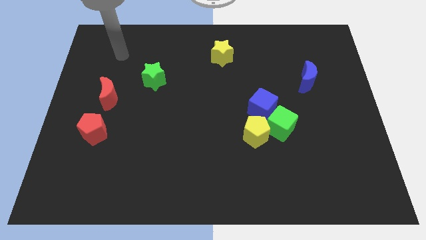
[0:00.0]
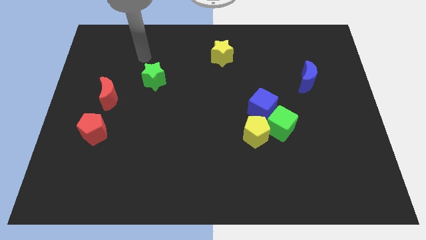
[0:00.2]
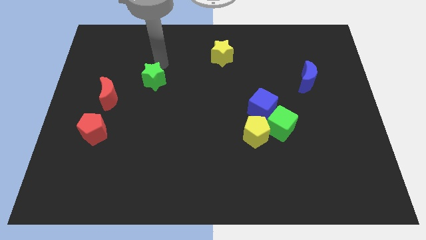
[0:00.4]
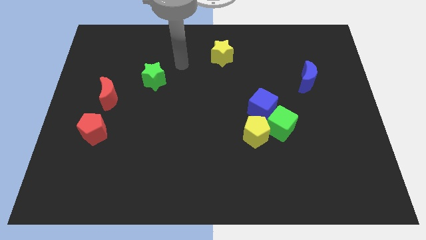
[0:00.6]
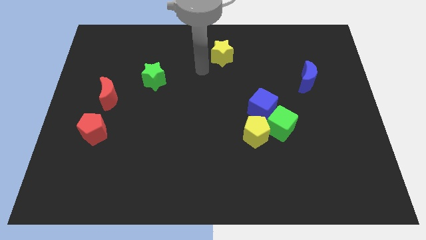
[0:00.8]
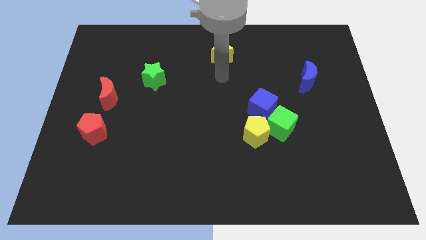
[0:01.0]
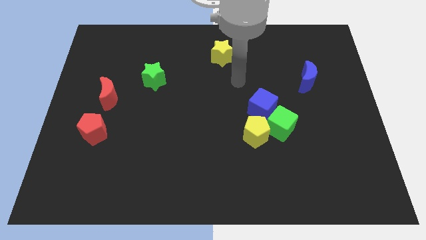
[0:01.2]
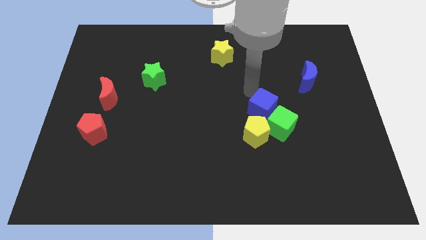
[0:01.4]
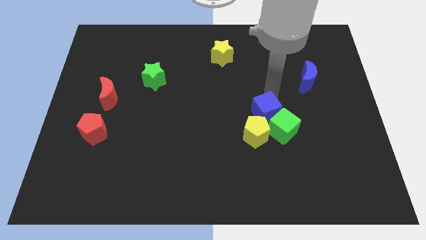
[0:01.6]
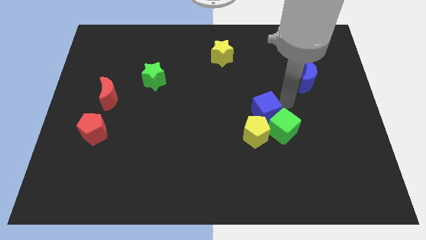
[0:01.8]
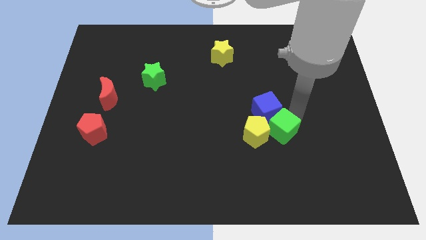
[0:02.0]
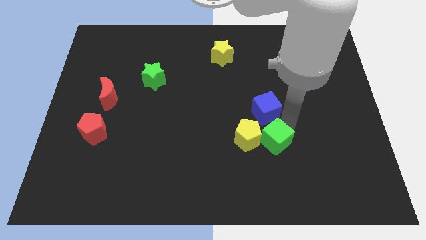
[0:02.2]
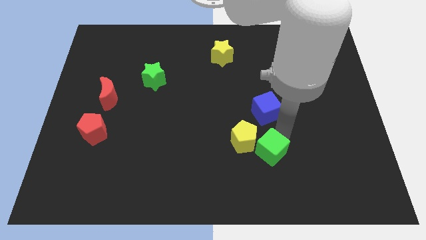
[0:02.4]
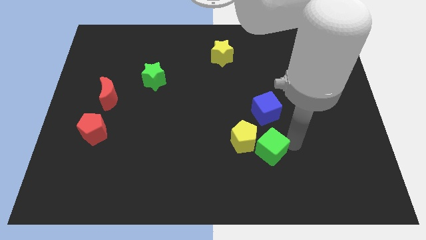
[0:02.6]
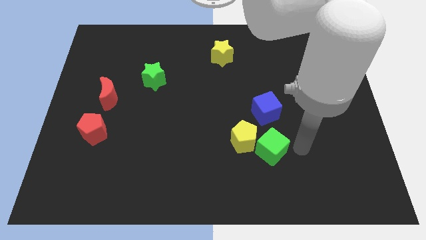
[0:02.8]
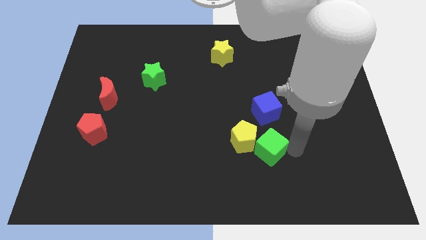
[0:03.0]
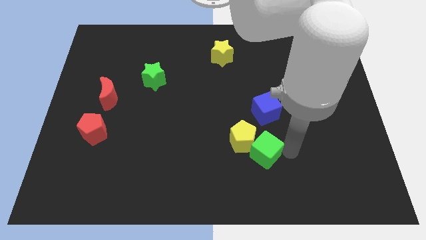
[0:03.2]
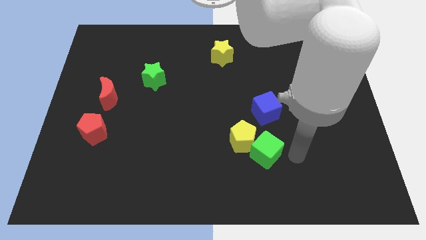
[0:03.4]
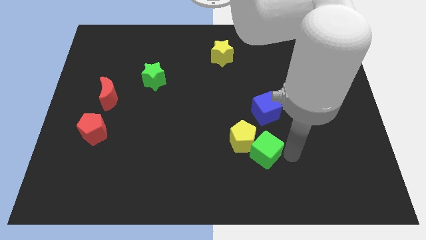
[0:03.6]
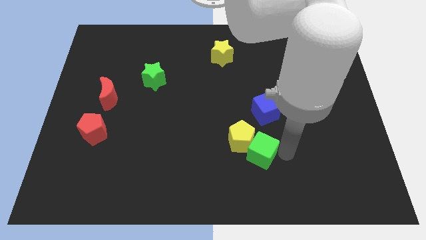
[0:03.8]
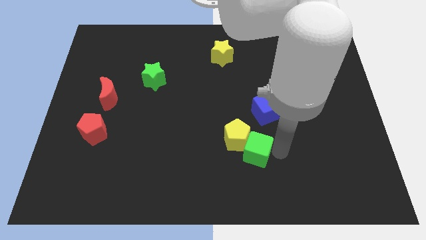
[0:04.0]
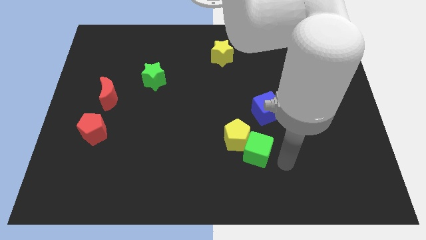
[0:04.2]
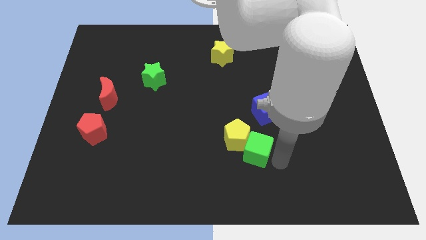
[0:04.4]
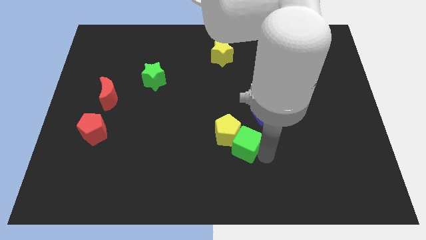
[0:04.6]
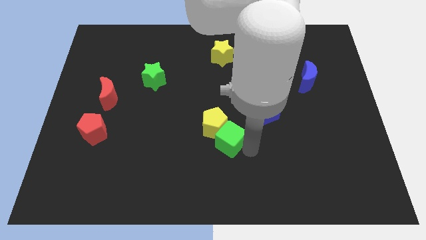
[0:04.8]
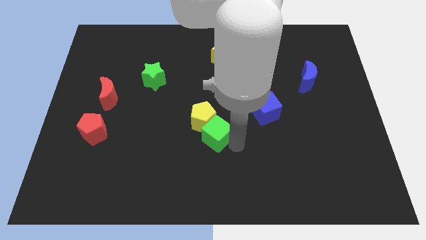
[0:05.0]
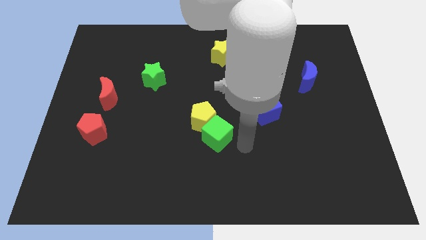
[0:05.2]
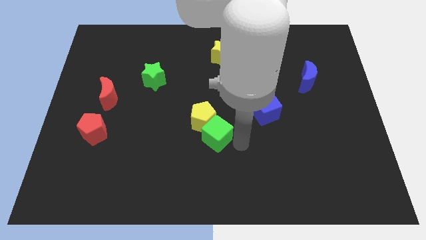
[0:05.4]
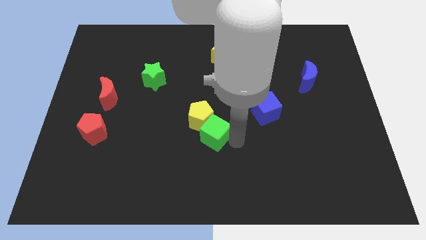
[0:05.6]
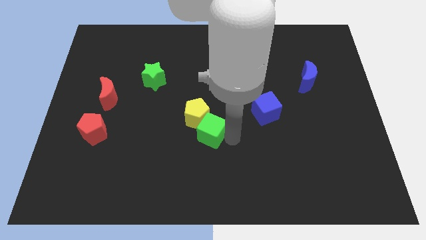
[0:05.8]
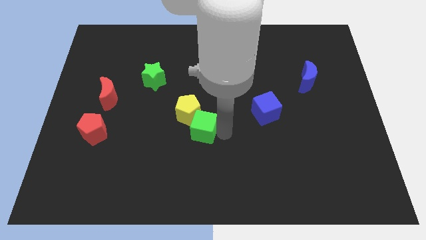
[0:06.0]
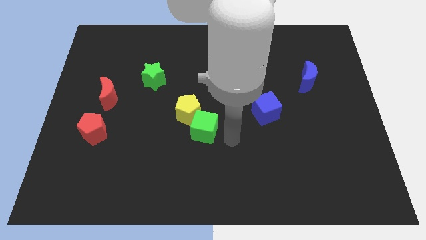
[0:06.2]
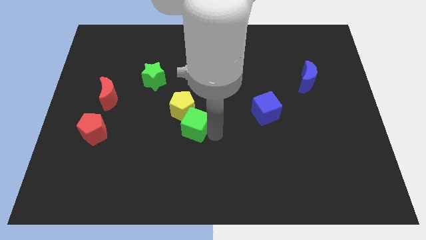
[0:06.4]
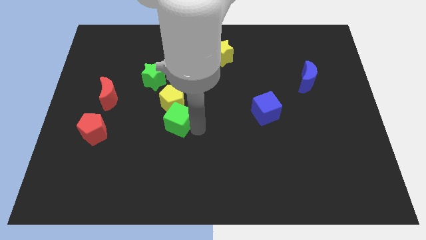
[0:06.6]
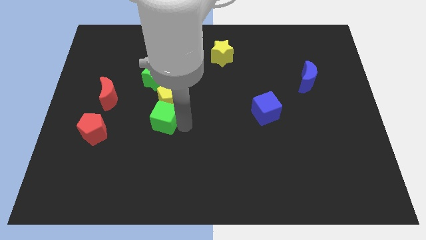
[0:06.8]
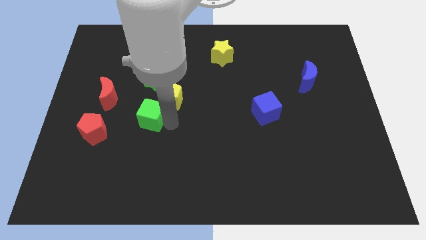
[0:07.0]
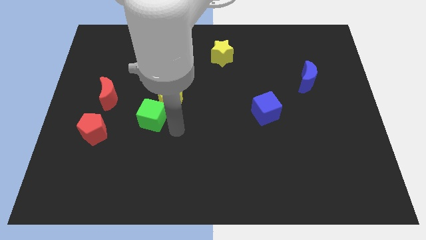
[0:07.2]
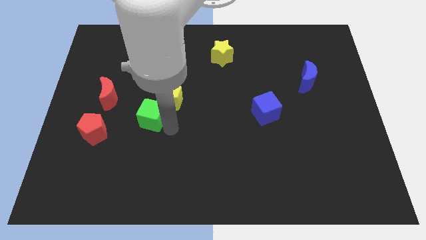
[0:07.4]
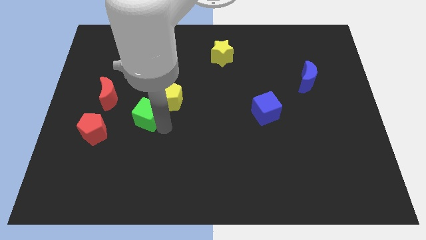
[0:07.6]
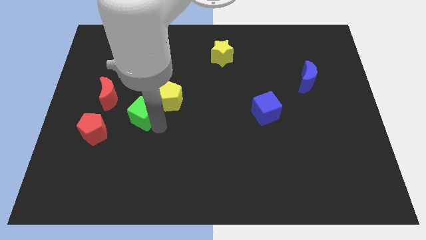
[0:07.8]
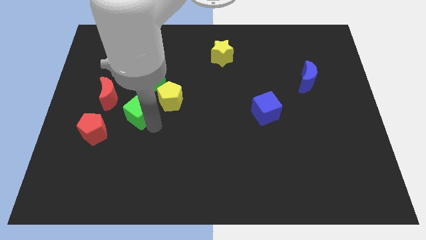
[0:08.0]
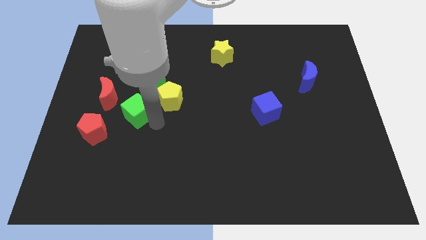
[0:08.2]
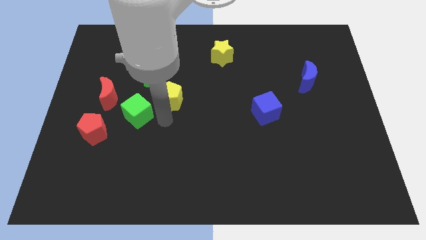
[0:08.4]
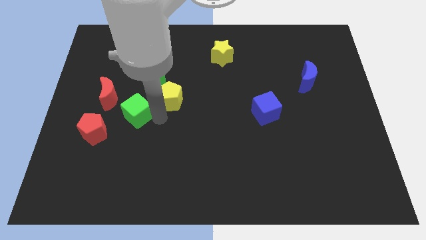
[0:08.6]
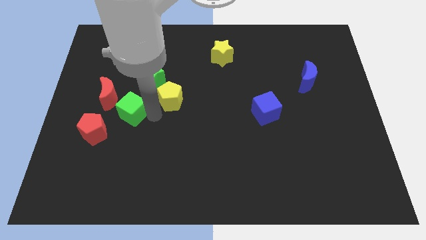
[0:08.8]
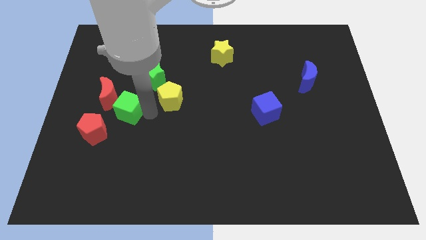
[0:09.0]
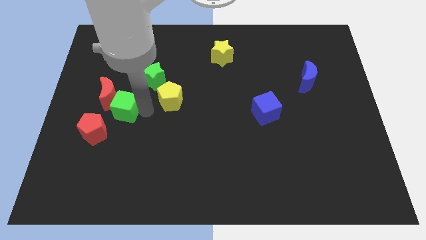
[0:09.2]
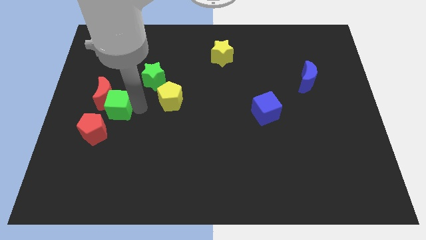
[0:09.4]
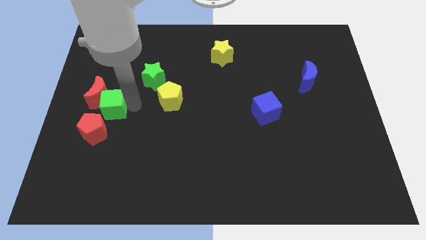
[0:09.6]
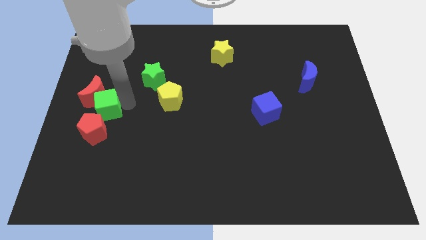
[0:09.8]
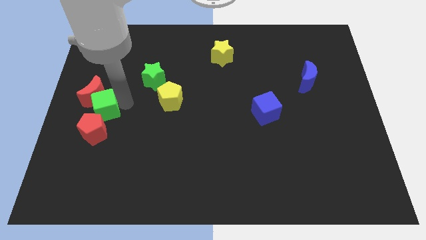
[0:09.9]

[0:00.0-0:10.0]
put the green cube to the center left

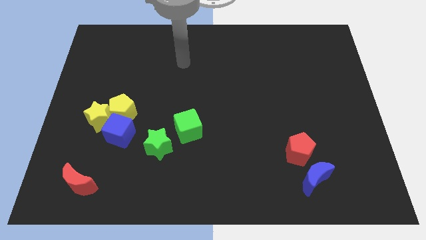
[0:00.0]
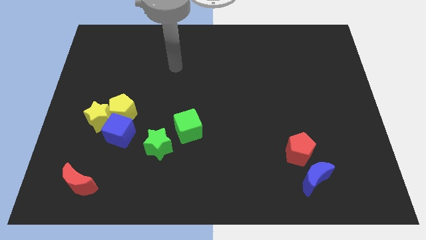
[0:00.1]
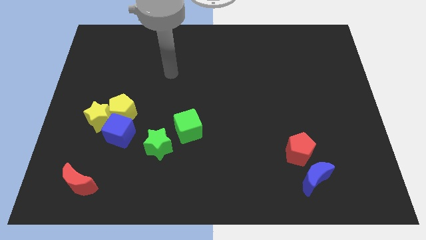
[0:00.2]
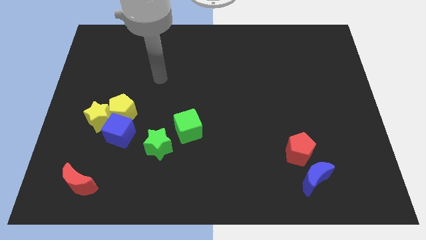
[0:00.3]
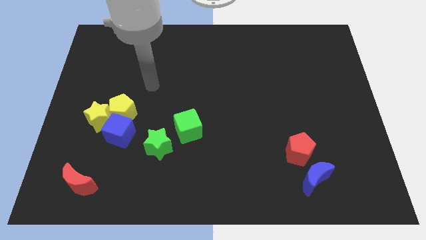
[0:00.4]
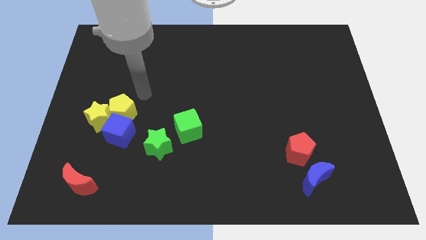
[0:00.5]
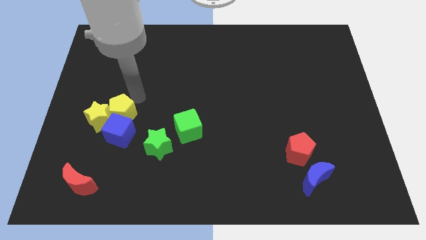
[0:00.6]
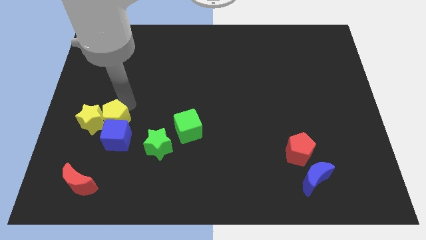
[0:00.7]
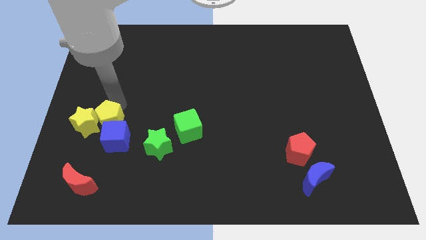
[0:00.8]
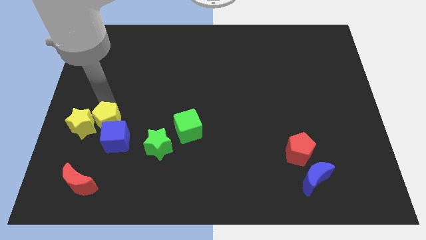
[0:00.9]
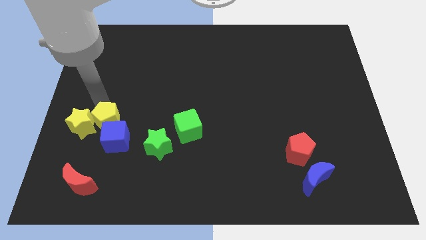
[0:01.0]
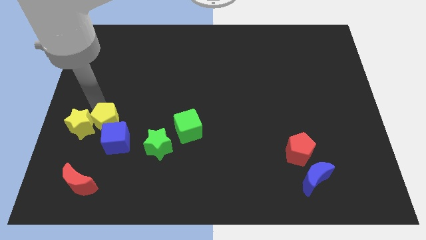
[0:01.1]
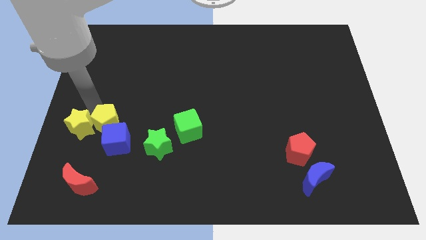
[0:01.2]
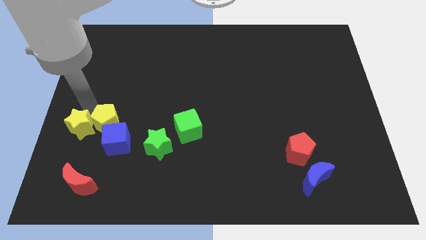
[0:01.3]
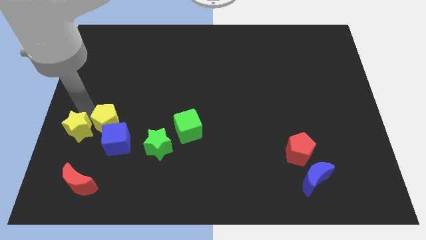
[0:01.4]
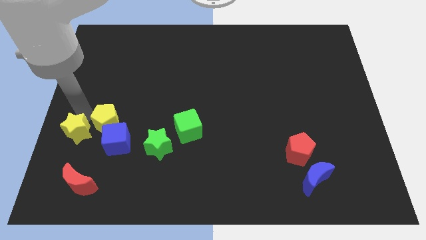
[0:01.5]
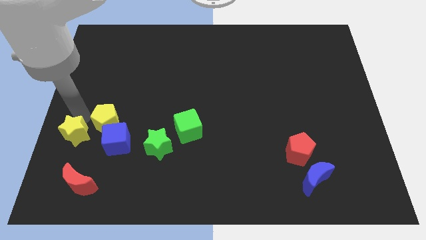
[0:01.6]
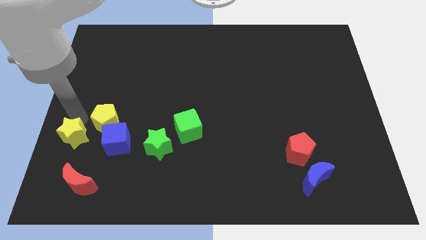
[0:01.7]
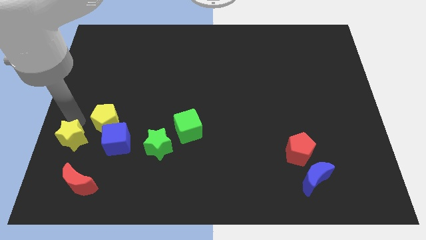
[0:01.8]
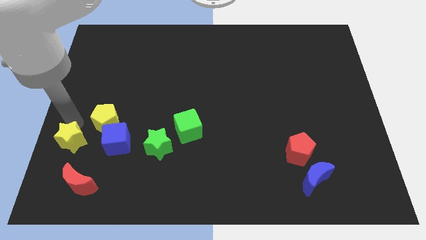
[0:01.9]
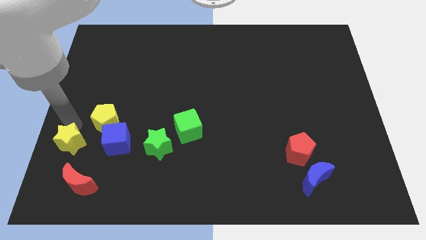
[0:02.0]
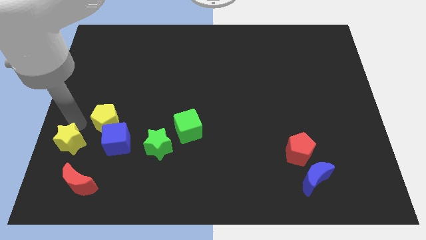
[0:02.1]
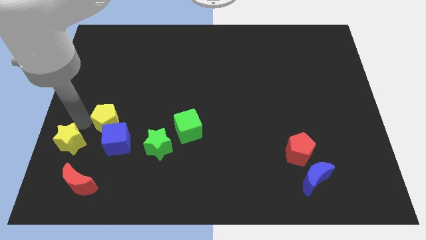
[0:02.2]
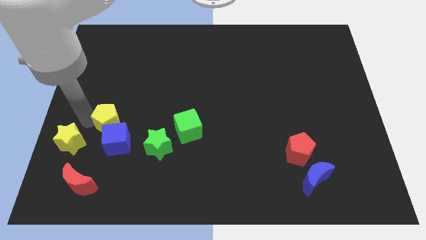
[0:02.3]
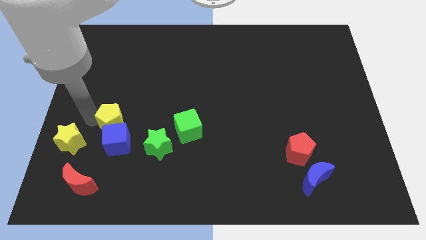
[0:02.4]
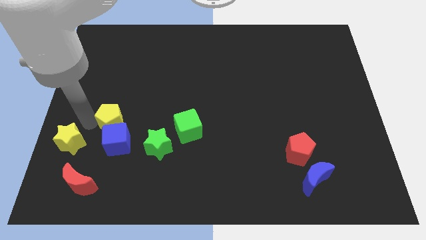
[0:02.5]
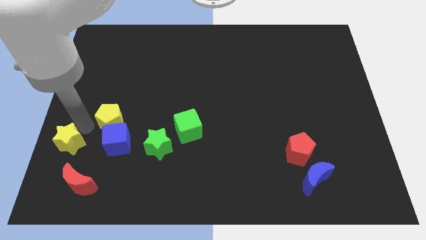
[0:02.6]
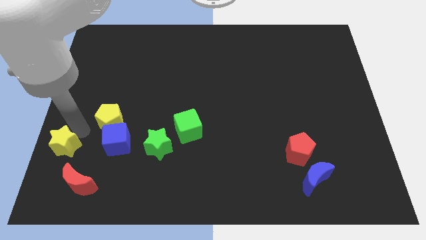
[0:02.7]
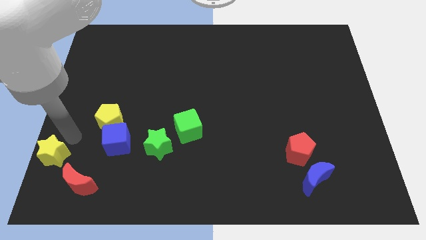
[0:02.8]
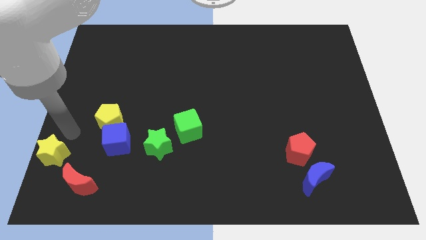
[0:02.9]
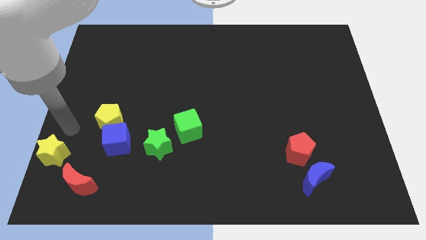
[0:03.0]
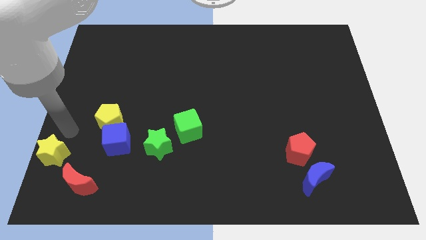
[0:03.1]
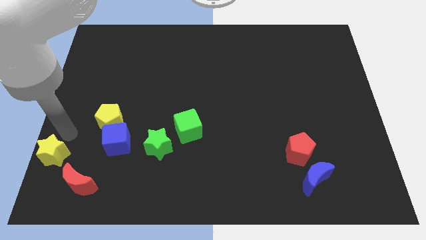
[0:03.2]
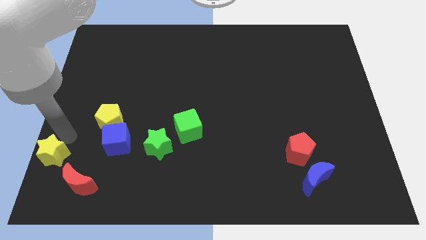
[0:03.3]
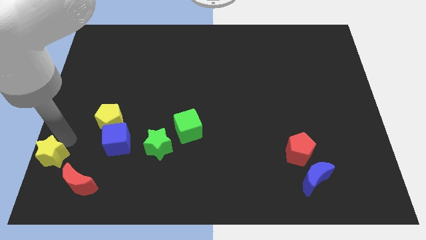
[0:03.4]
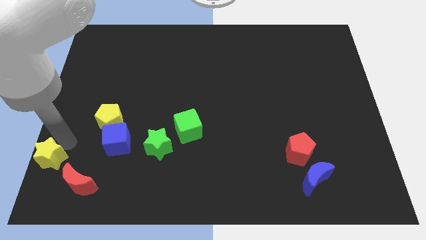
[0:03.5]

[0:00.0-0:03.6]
move the yellow star to the bottom left corner
